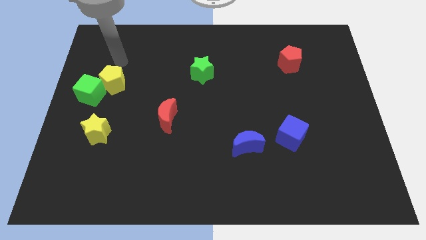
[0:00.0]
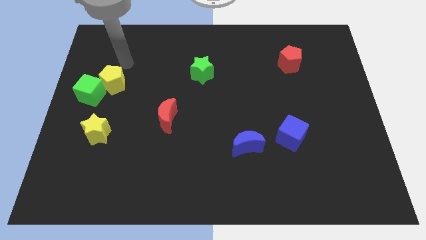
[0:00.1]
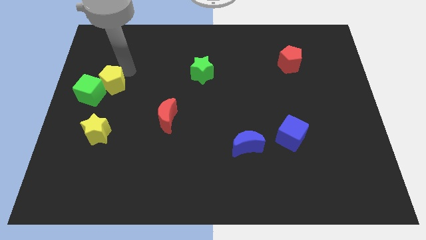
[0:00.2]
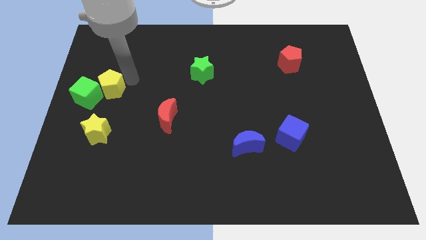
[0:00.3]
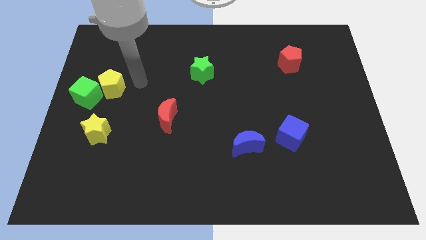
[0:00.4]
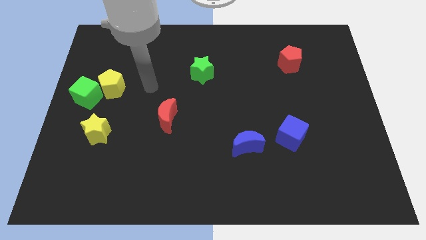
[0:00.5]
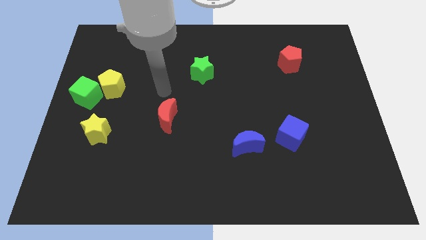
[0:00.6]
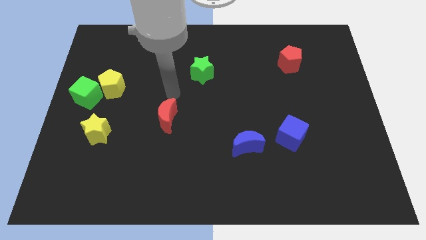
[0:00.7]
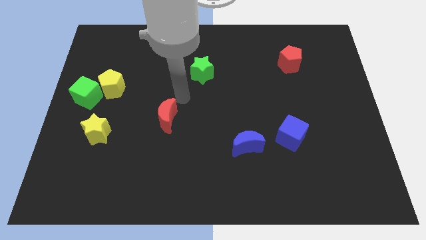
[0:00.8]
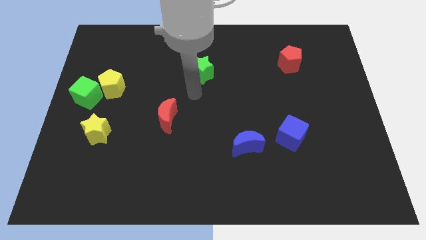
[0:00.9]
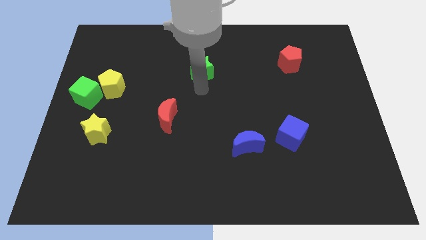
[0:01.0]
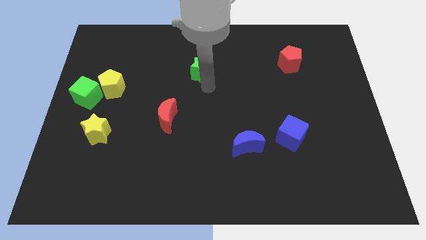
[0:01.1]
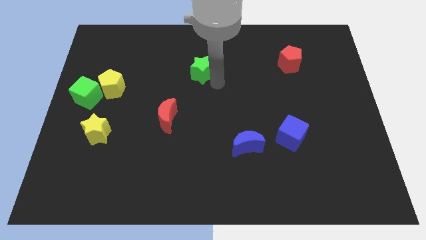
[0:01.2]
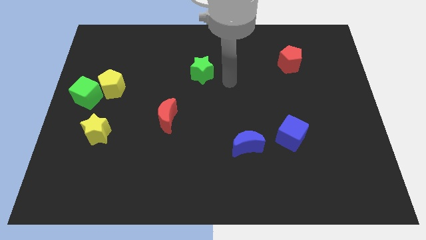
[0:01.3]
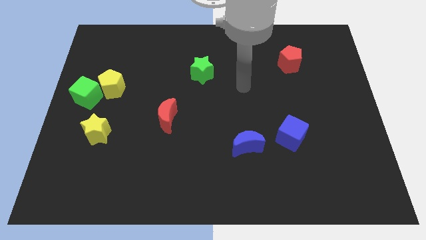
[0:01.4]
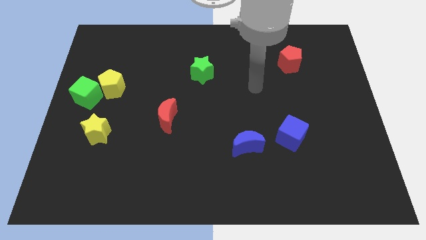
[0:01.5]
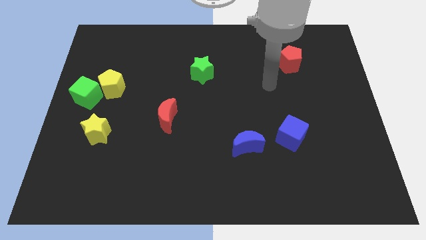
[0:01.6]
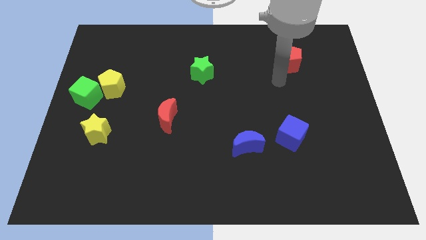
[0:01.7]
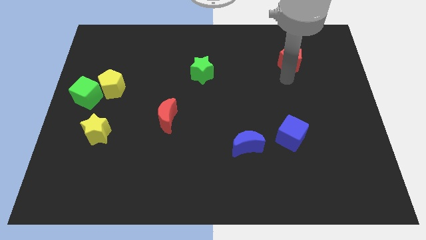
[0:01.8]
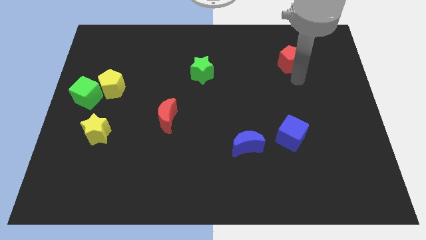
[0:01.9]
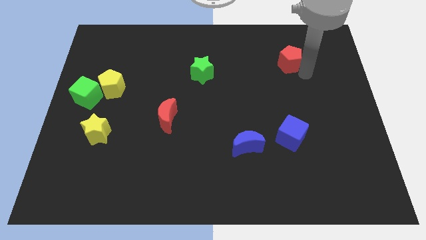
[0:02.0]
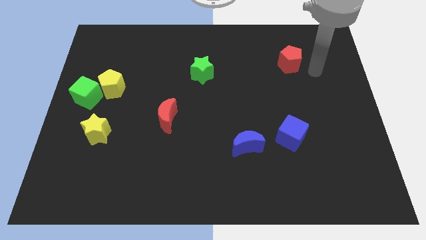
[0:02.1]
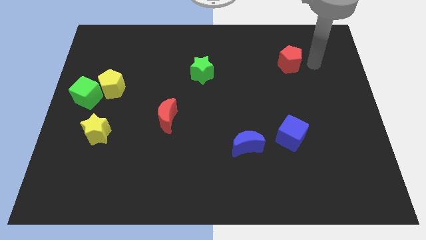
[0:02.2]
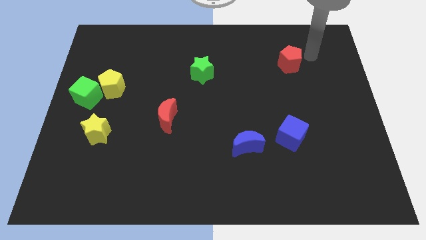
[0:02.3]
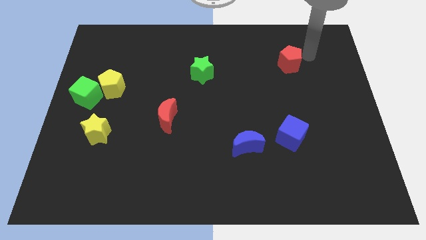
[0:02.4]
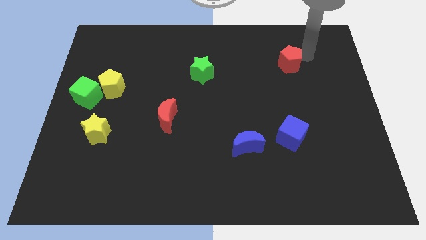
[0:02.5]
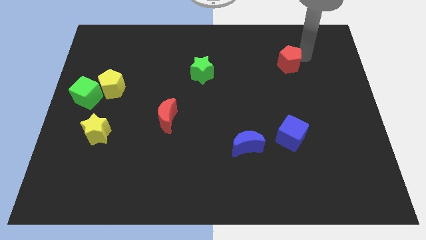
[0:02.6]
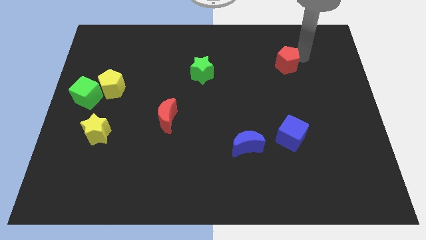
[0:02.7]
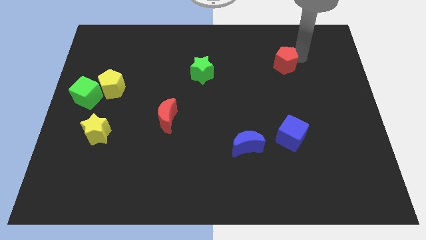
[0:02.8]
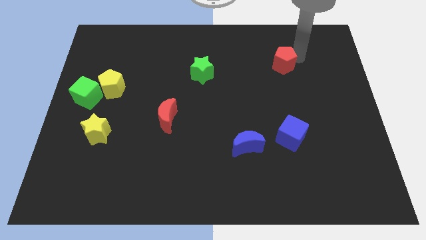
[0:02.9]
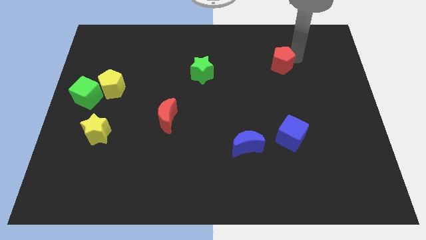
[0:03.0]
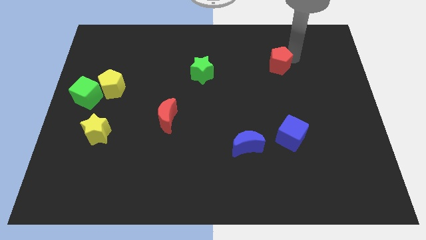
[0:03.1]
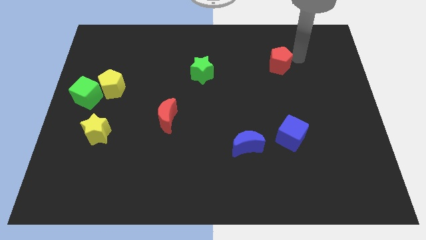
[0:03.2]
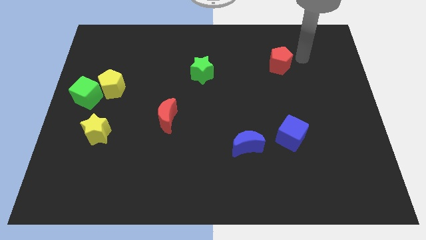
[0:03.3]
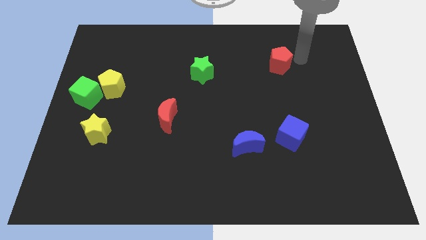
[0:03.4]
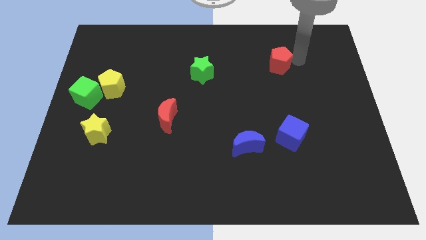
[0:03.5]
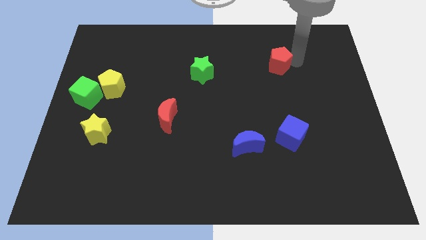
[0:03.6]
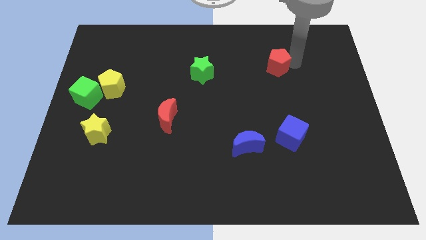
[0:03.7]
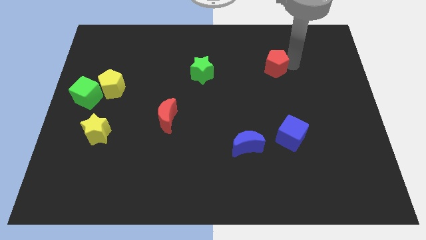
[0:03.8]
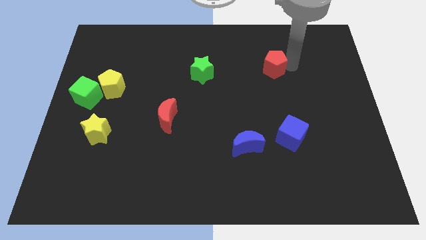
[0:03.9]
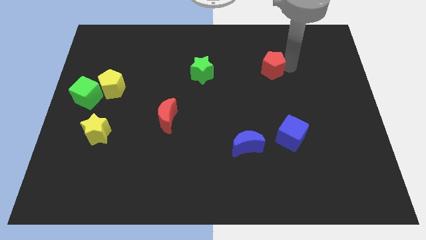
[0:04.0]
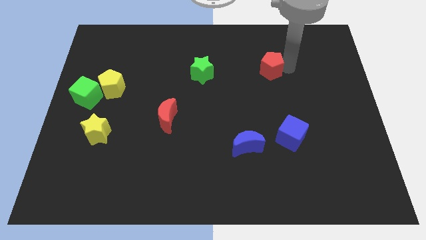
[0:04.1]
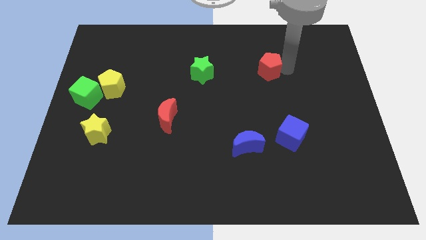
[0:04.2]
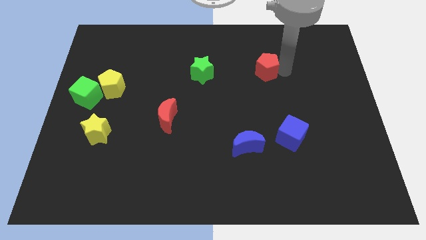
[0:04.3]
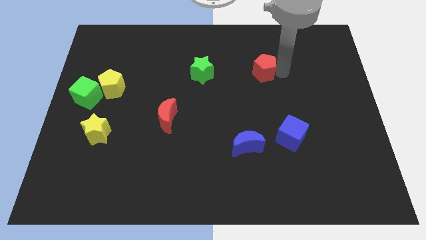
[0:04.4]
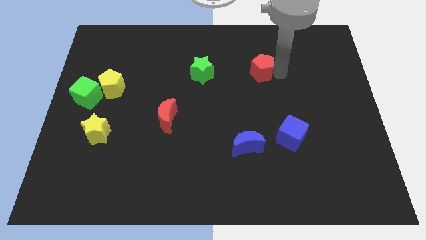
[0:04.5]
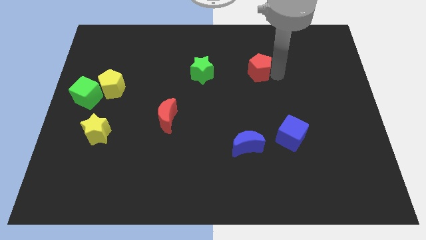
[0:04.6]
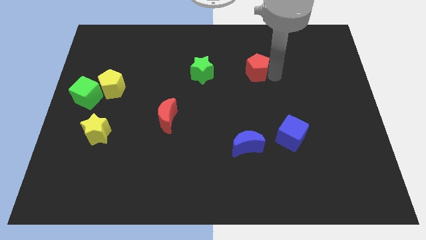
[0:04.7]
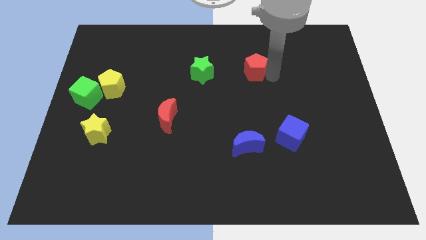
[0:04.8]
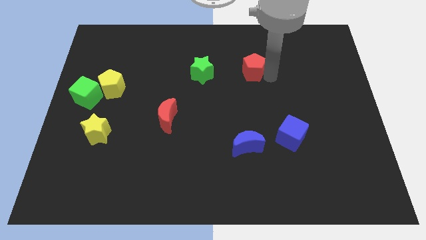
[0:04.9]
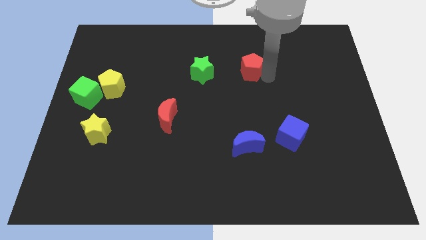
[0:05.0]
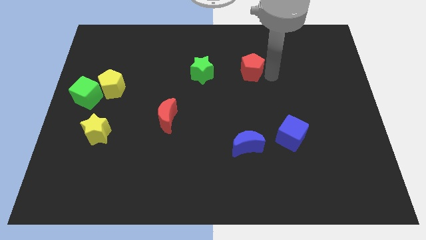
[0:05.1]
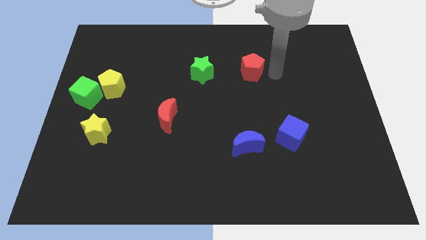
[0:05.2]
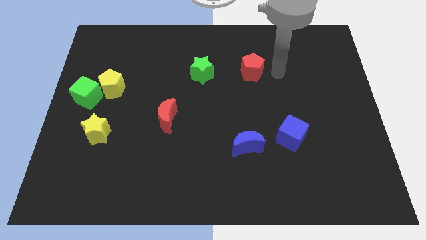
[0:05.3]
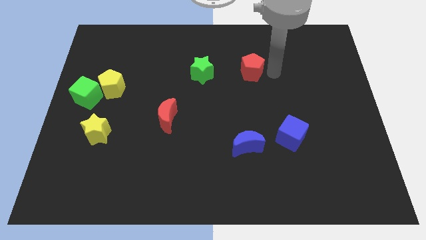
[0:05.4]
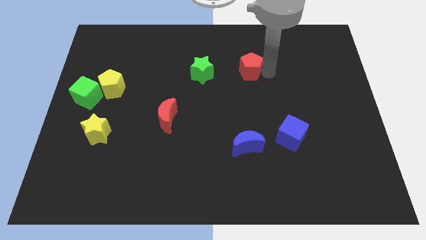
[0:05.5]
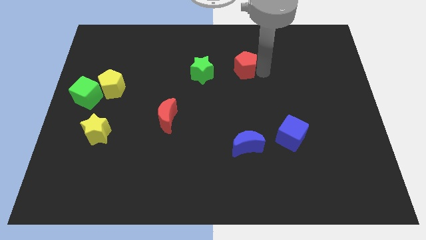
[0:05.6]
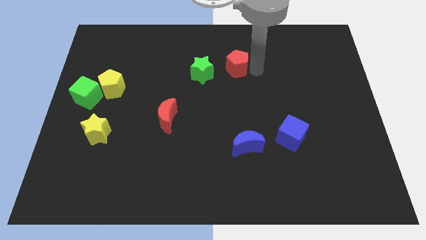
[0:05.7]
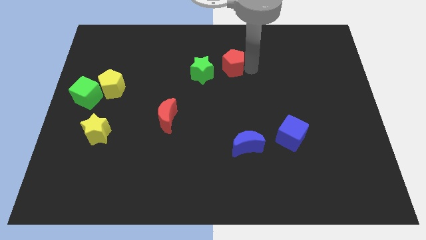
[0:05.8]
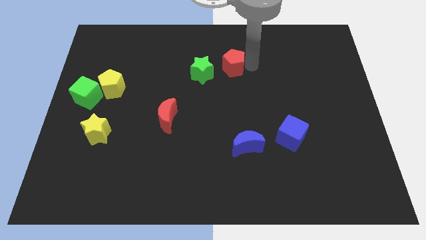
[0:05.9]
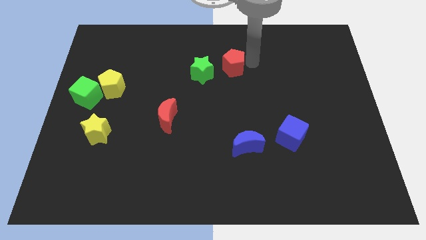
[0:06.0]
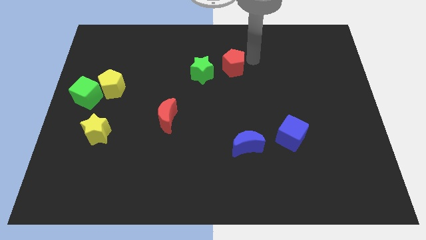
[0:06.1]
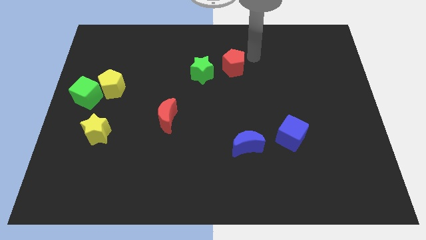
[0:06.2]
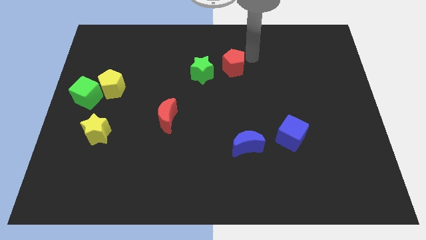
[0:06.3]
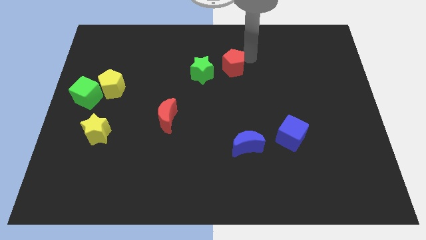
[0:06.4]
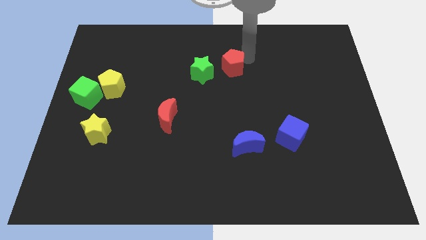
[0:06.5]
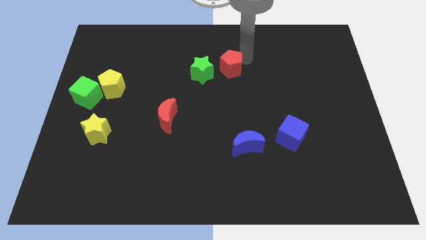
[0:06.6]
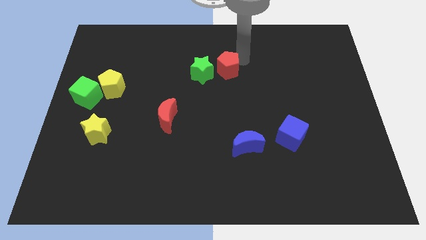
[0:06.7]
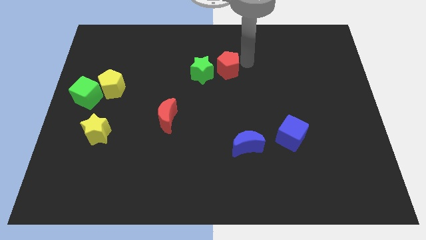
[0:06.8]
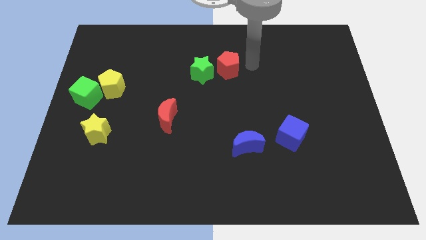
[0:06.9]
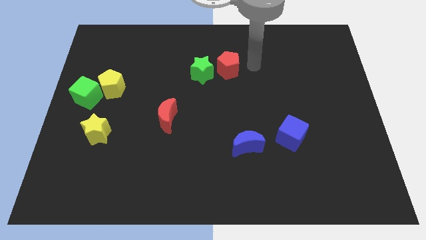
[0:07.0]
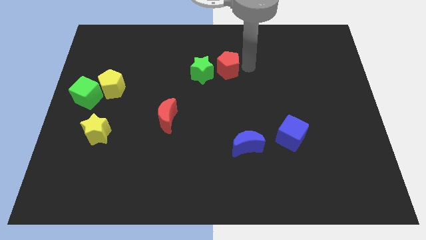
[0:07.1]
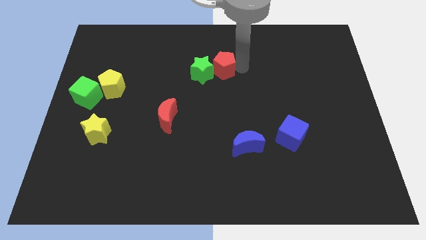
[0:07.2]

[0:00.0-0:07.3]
move the red pentagon close to the green star

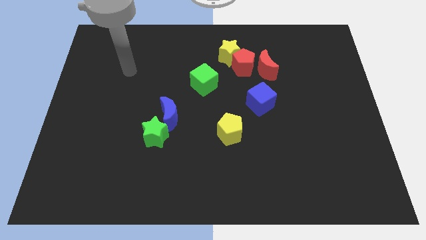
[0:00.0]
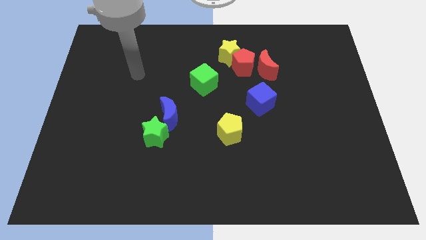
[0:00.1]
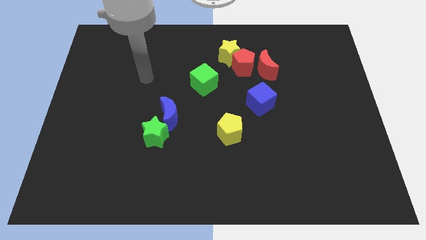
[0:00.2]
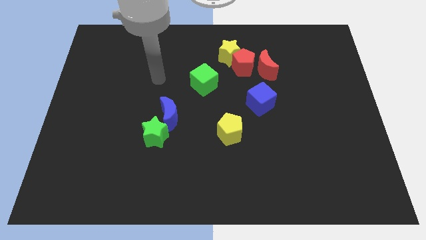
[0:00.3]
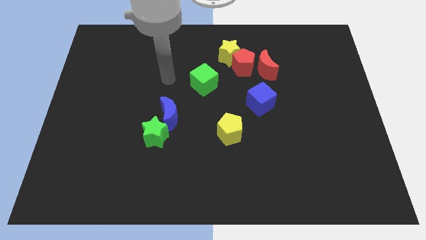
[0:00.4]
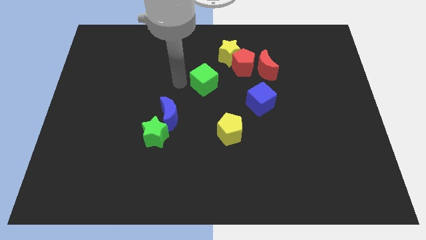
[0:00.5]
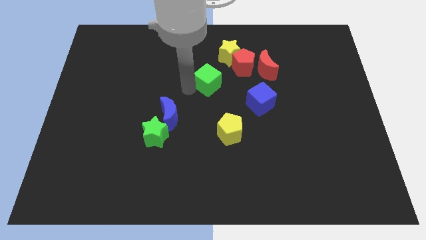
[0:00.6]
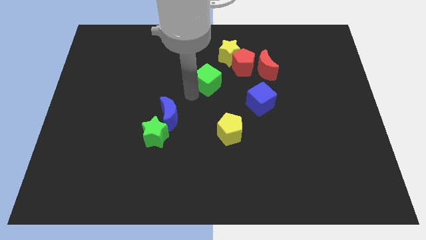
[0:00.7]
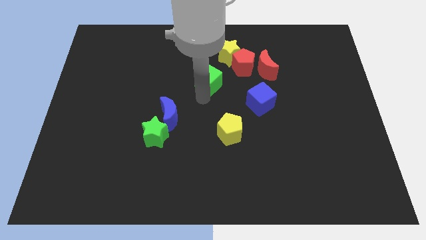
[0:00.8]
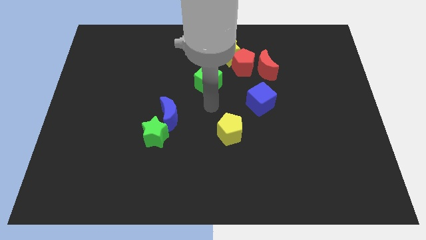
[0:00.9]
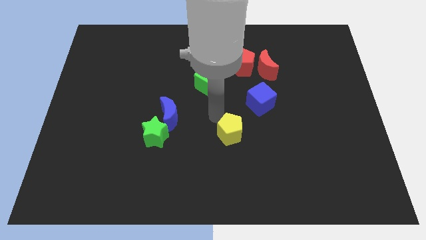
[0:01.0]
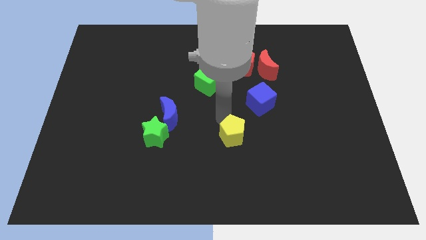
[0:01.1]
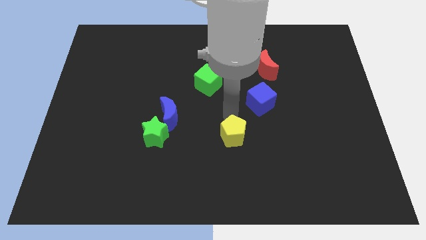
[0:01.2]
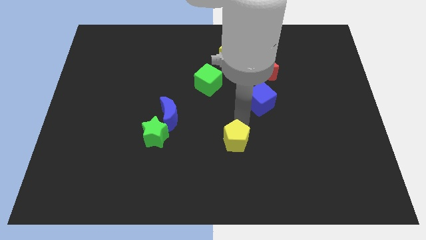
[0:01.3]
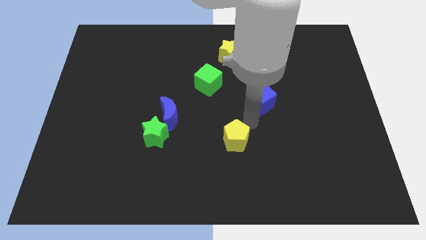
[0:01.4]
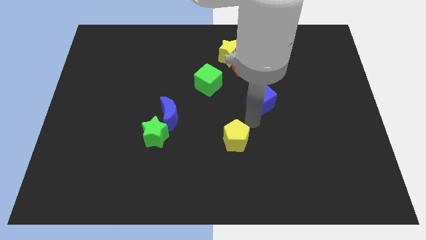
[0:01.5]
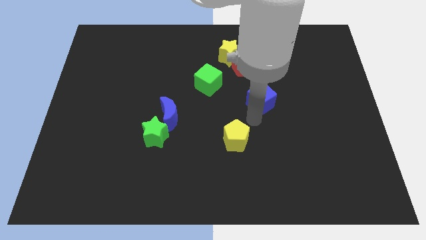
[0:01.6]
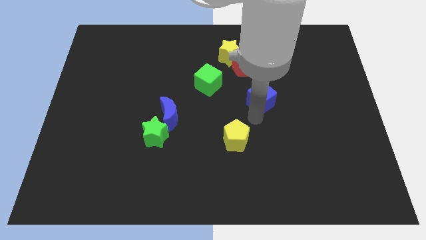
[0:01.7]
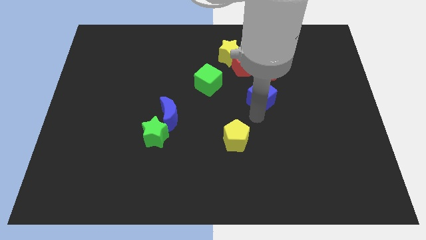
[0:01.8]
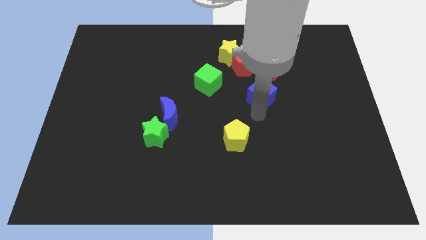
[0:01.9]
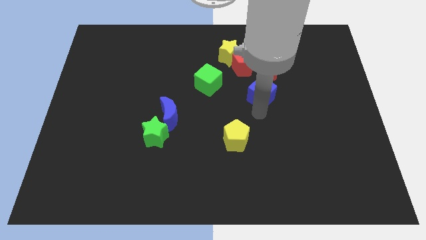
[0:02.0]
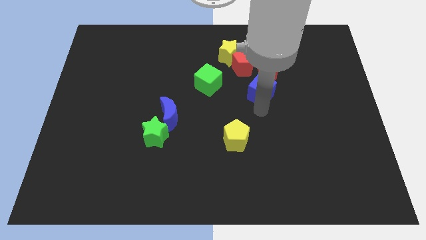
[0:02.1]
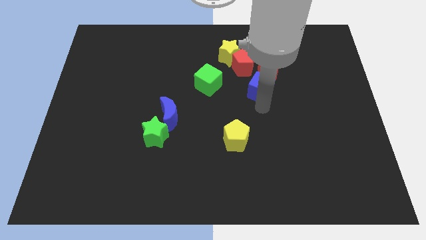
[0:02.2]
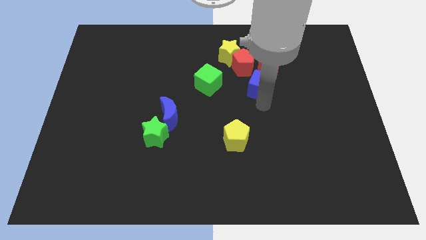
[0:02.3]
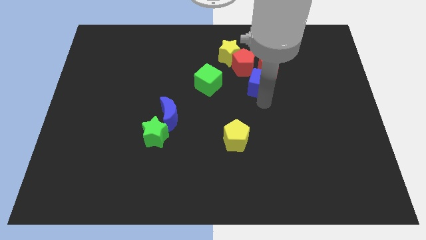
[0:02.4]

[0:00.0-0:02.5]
put the blue cube towards the red moon
